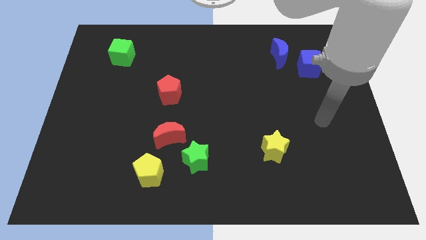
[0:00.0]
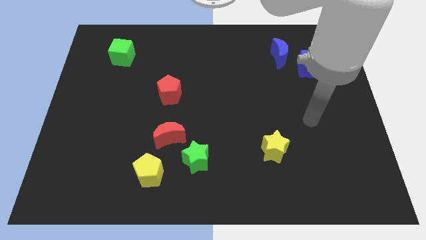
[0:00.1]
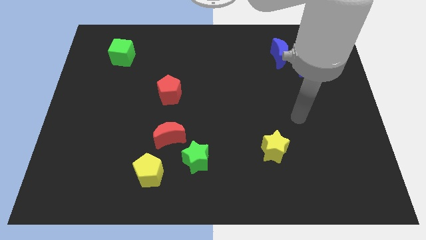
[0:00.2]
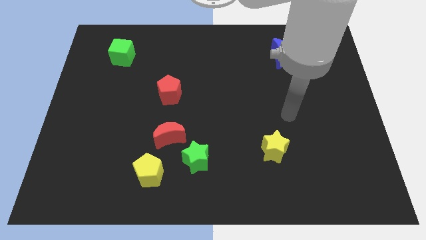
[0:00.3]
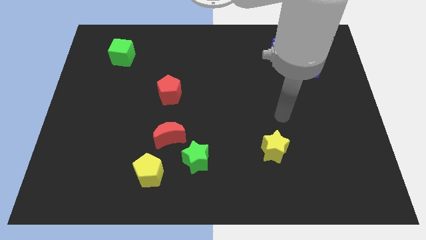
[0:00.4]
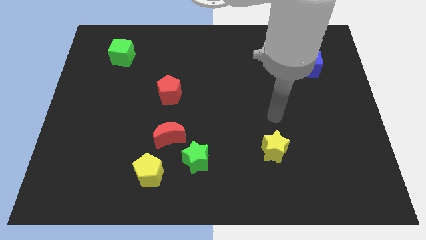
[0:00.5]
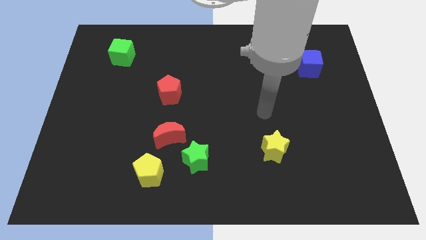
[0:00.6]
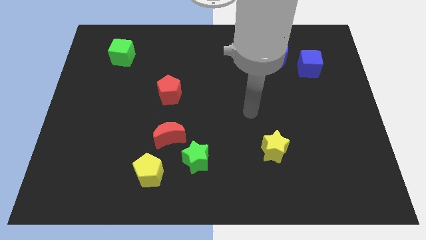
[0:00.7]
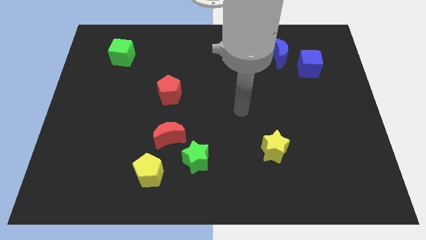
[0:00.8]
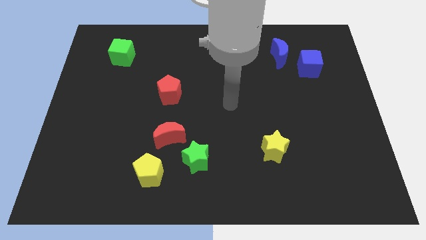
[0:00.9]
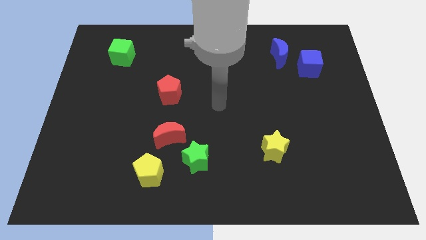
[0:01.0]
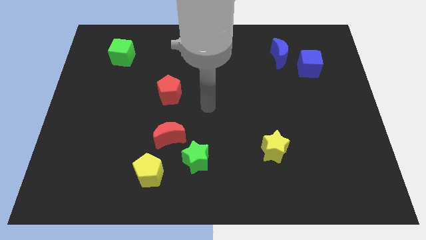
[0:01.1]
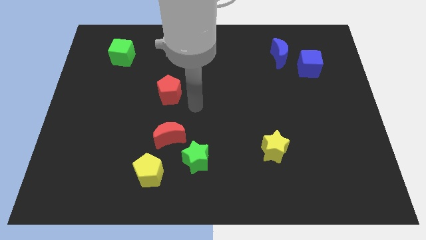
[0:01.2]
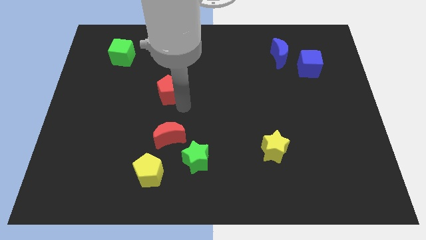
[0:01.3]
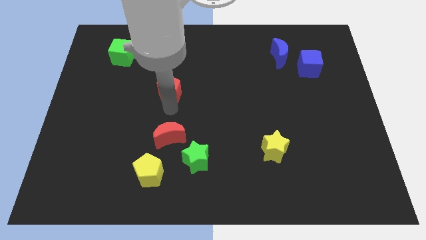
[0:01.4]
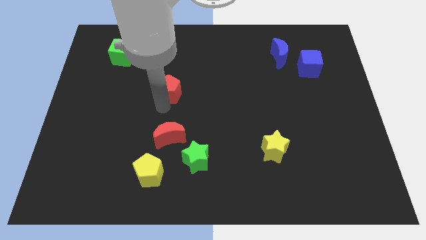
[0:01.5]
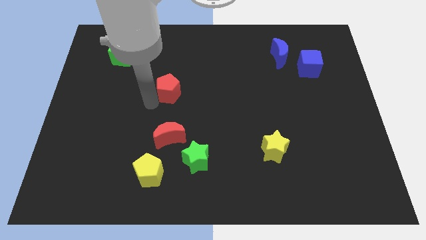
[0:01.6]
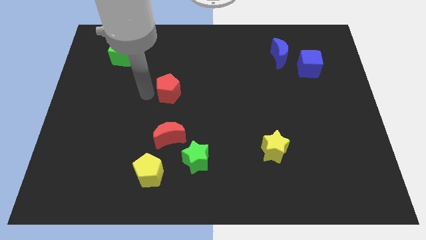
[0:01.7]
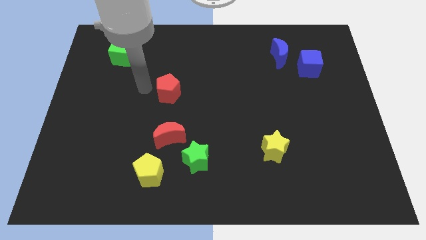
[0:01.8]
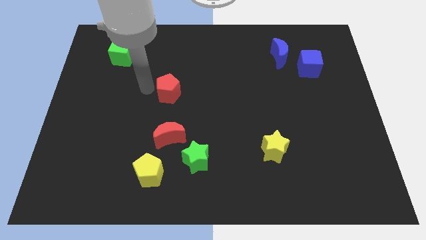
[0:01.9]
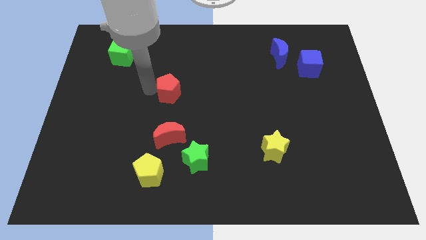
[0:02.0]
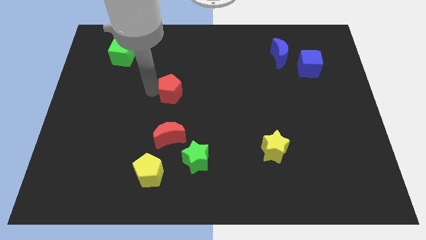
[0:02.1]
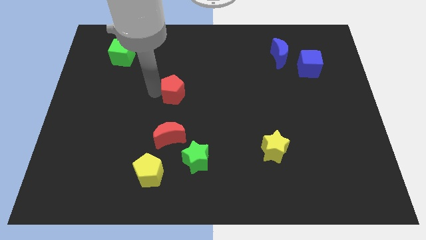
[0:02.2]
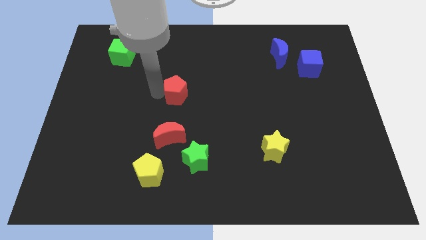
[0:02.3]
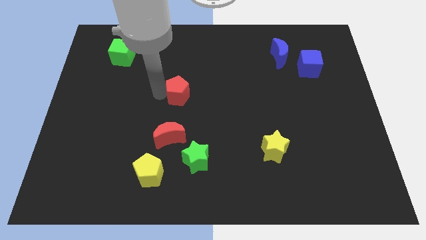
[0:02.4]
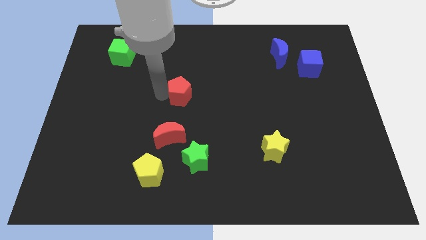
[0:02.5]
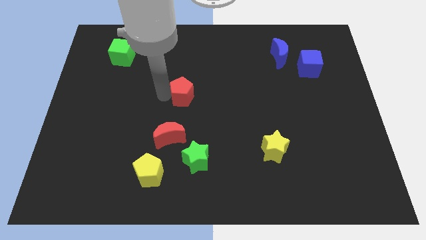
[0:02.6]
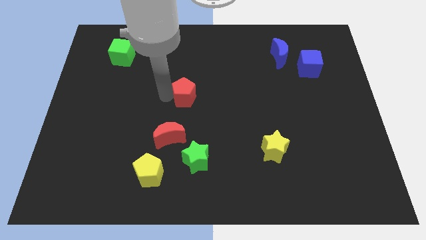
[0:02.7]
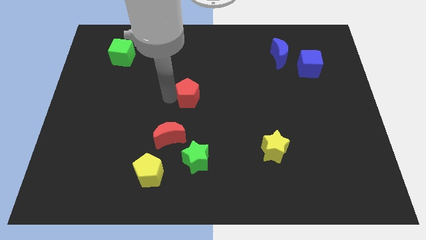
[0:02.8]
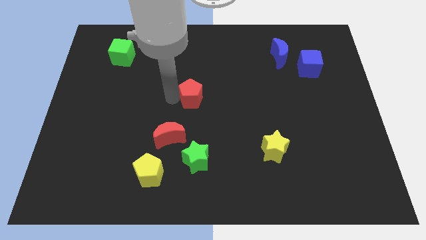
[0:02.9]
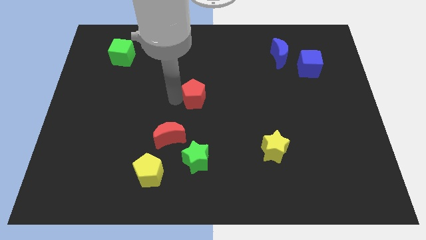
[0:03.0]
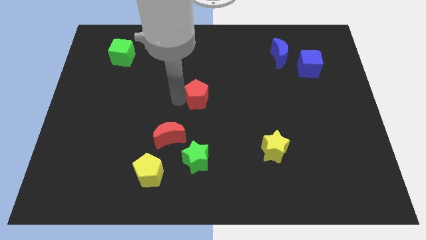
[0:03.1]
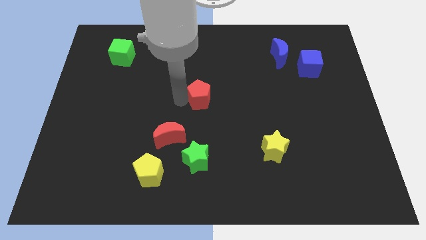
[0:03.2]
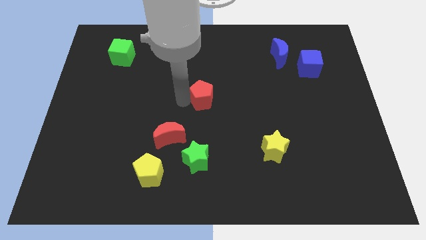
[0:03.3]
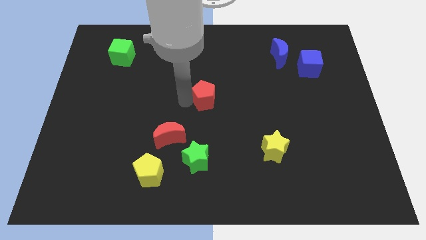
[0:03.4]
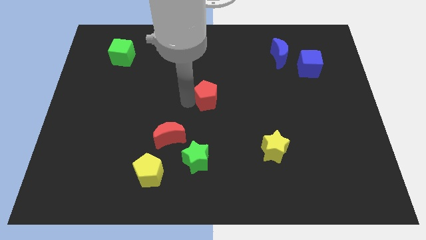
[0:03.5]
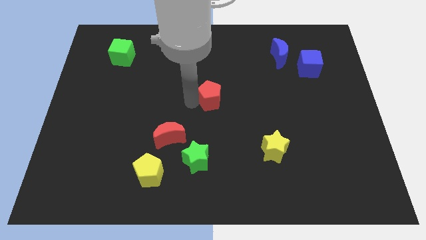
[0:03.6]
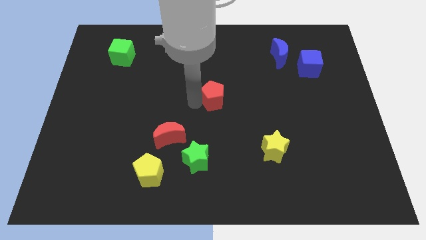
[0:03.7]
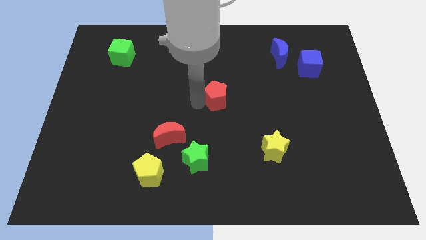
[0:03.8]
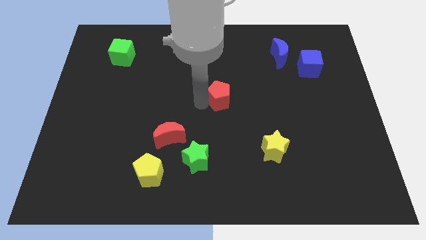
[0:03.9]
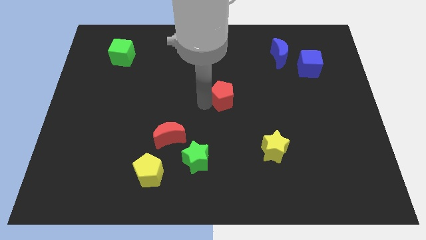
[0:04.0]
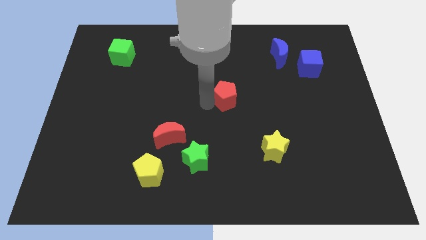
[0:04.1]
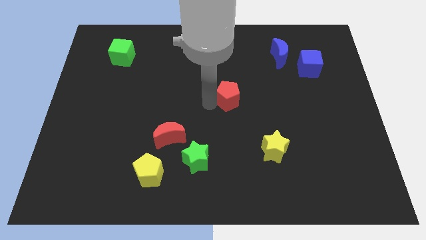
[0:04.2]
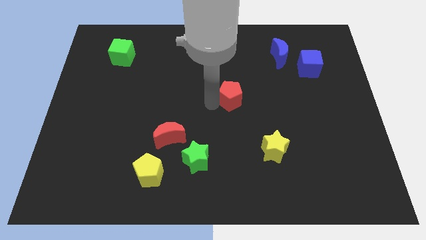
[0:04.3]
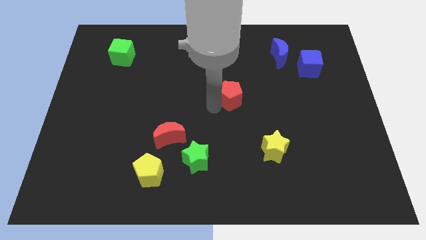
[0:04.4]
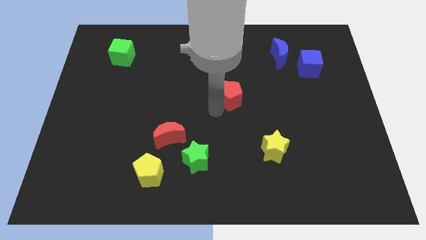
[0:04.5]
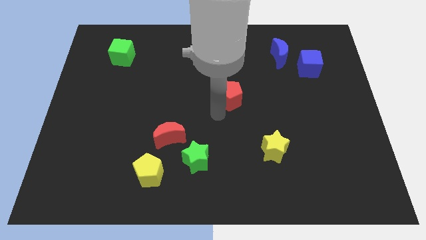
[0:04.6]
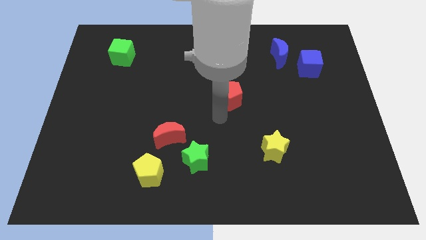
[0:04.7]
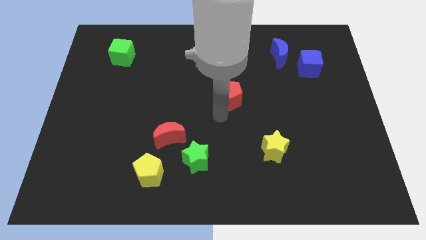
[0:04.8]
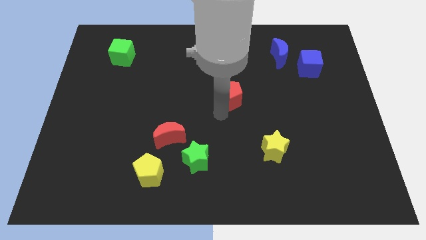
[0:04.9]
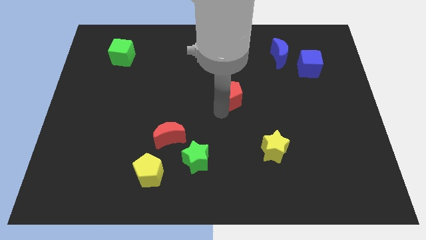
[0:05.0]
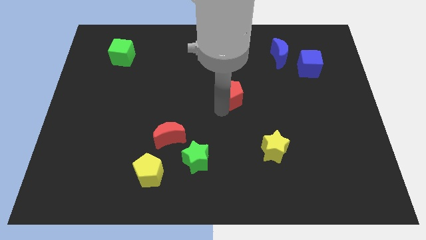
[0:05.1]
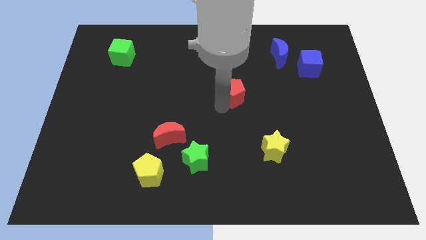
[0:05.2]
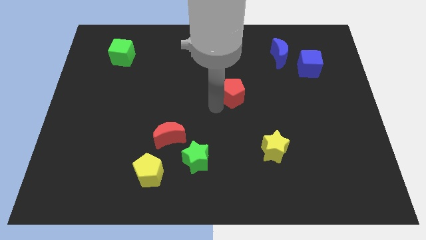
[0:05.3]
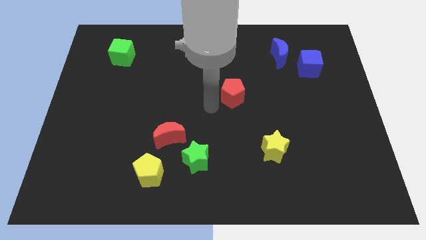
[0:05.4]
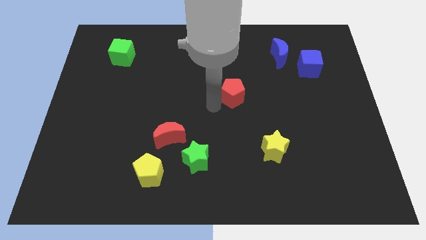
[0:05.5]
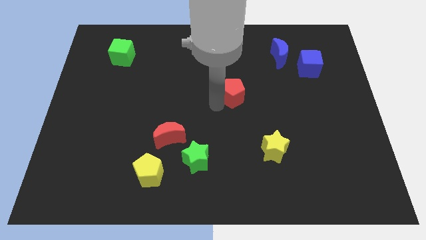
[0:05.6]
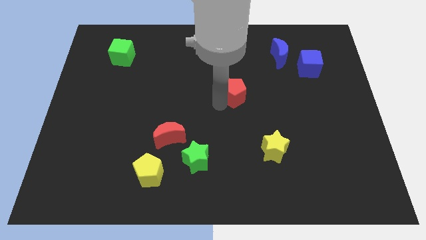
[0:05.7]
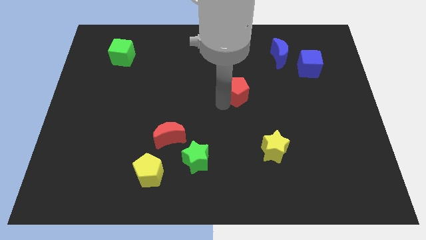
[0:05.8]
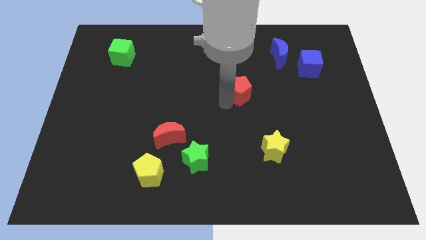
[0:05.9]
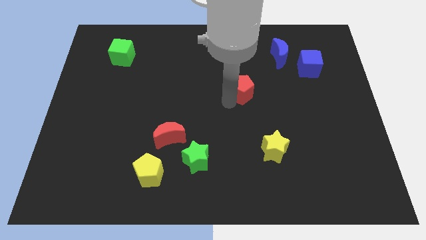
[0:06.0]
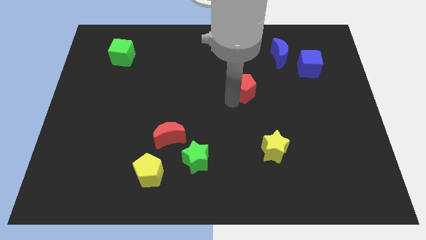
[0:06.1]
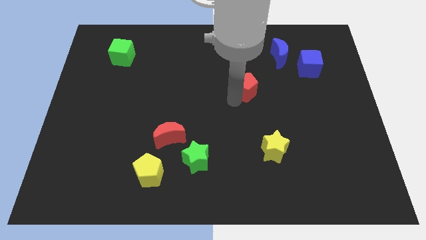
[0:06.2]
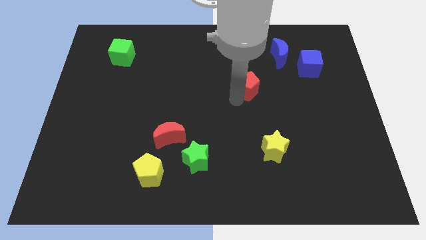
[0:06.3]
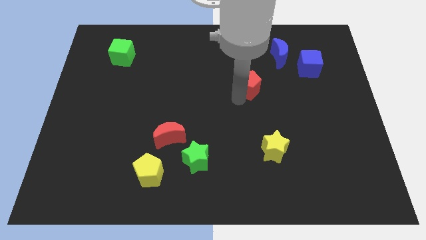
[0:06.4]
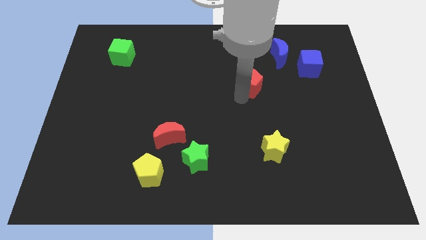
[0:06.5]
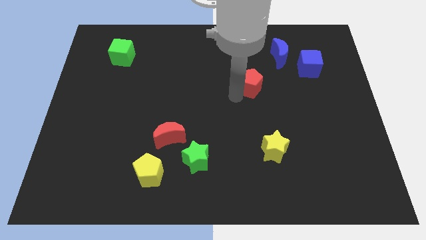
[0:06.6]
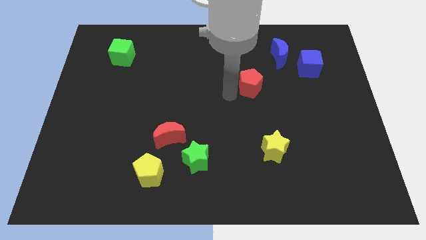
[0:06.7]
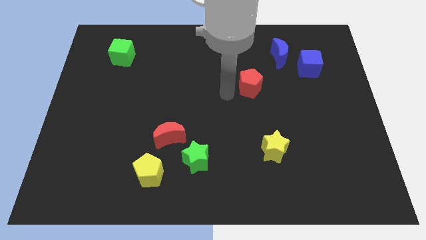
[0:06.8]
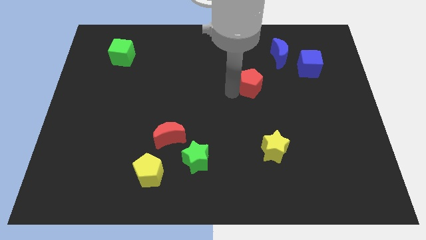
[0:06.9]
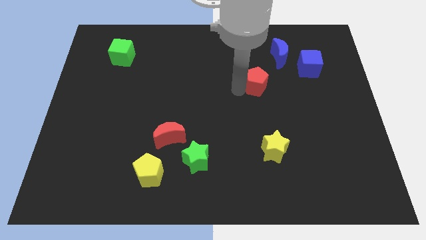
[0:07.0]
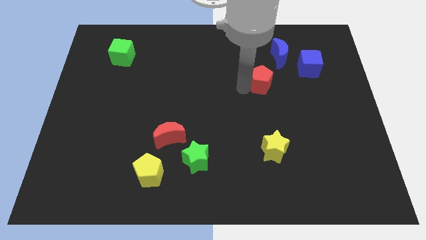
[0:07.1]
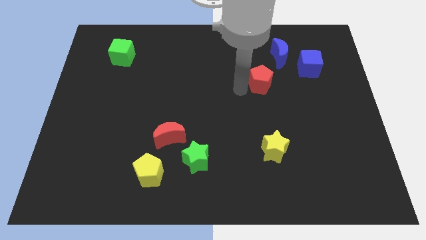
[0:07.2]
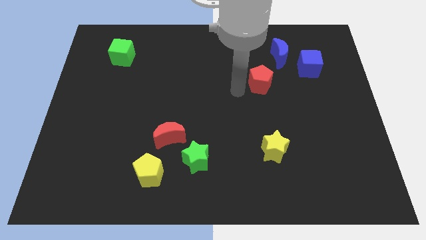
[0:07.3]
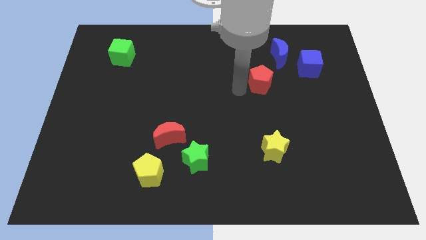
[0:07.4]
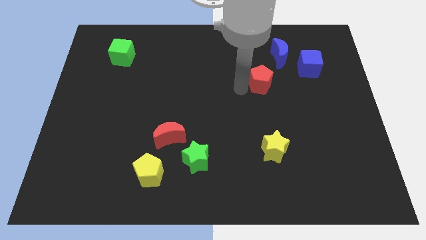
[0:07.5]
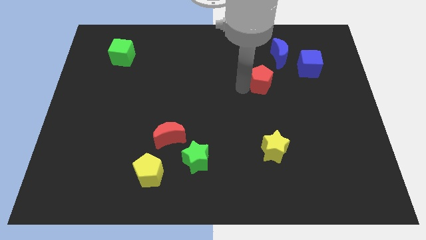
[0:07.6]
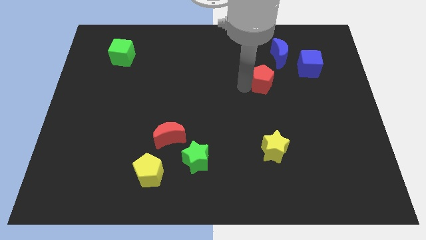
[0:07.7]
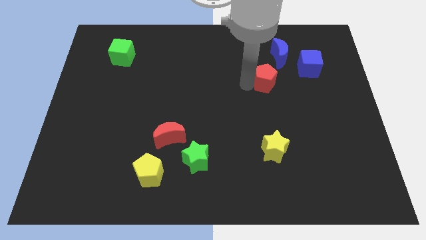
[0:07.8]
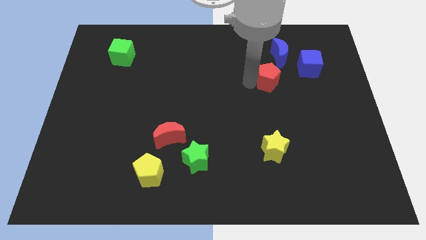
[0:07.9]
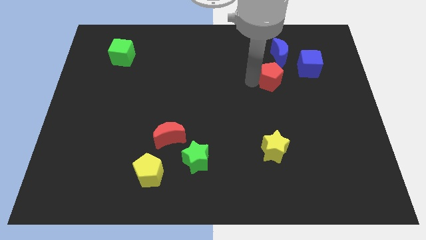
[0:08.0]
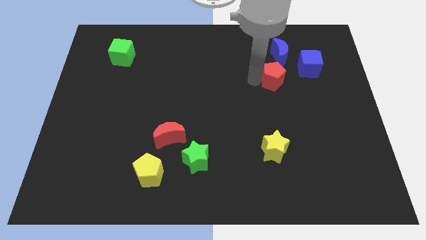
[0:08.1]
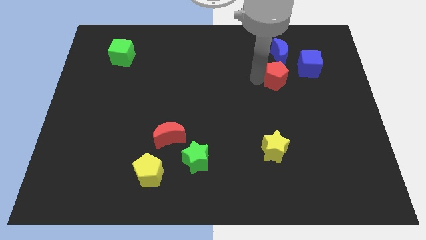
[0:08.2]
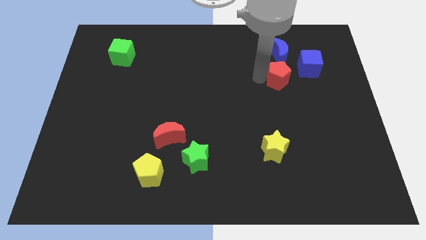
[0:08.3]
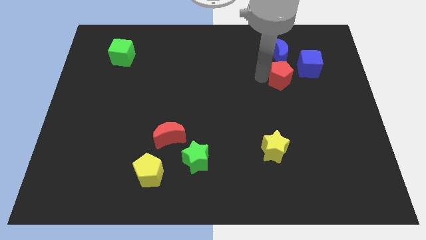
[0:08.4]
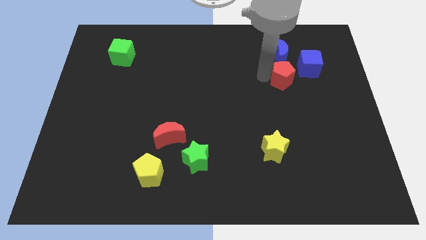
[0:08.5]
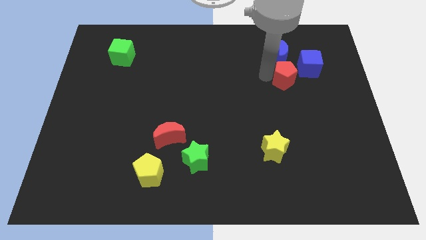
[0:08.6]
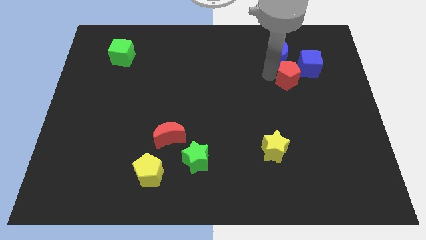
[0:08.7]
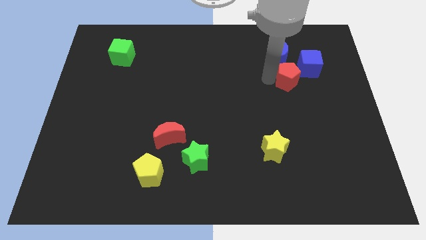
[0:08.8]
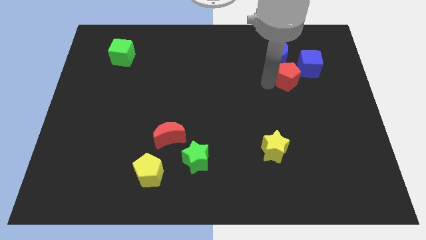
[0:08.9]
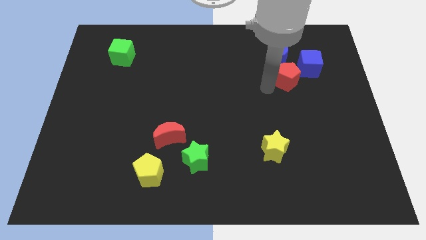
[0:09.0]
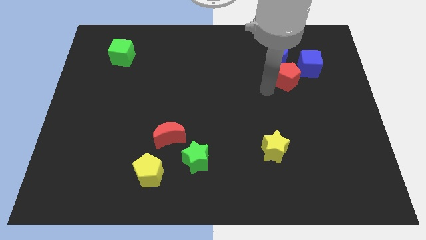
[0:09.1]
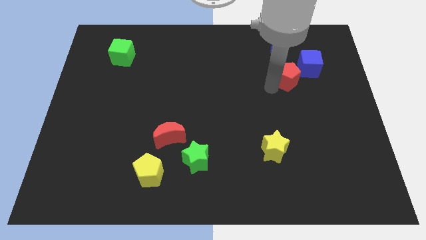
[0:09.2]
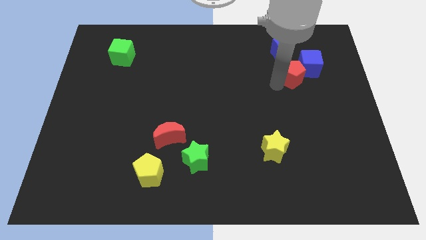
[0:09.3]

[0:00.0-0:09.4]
slide the red pentagon towards the blue cube
